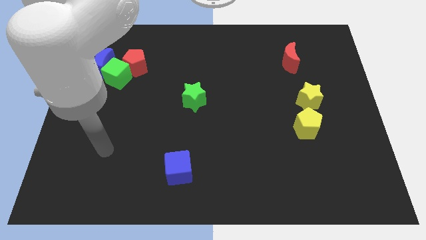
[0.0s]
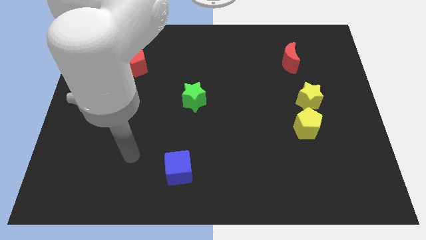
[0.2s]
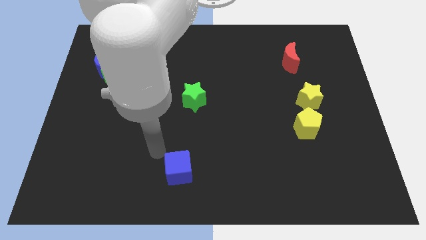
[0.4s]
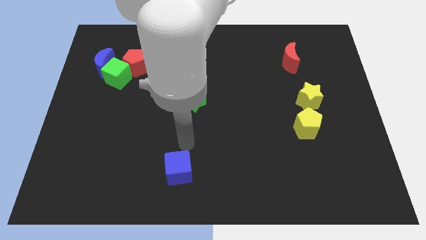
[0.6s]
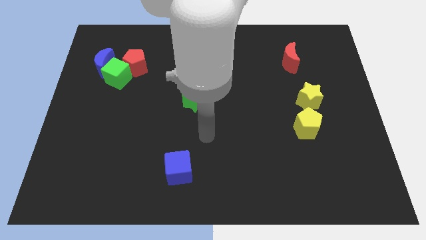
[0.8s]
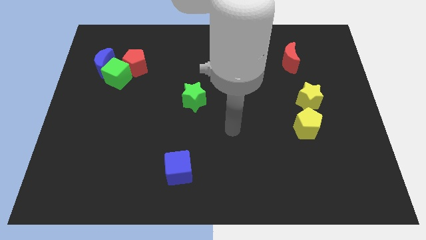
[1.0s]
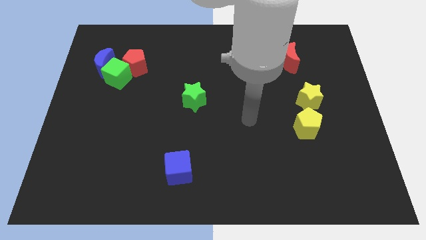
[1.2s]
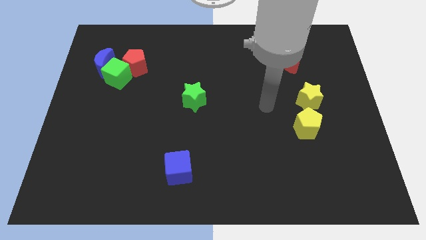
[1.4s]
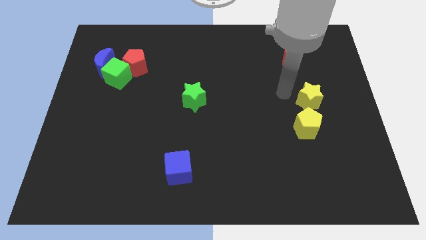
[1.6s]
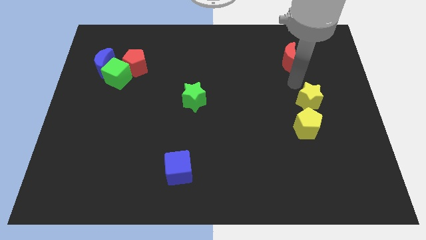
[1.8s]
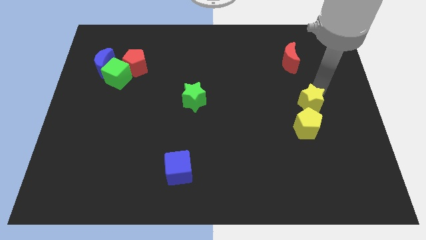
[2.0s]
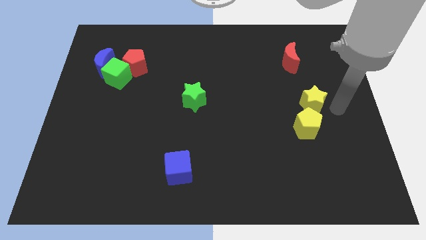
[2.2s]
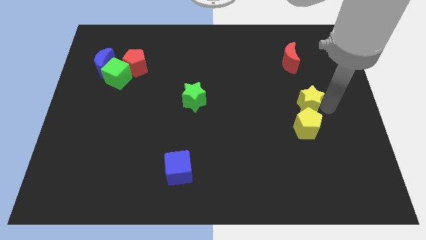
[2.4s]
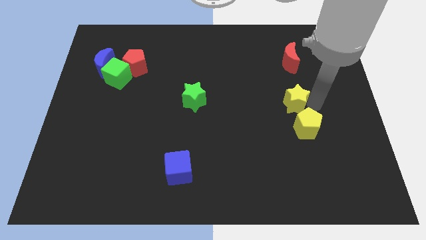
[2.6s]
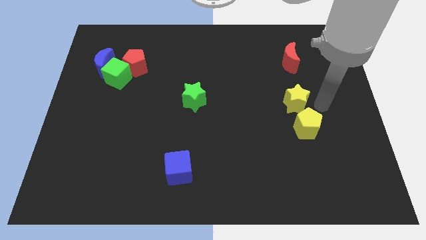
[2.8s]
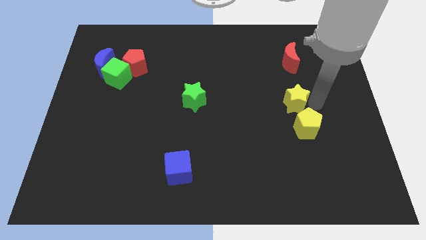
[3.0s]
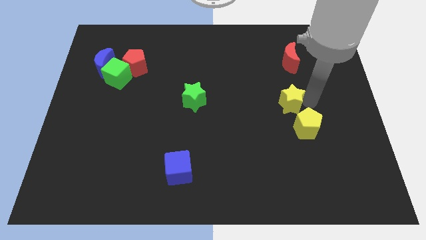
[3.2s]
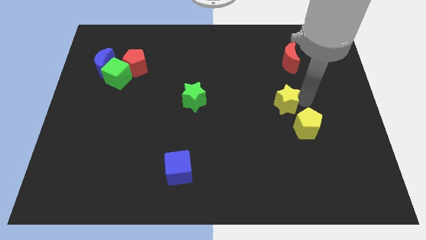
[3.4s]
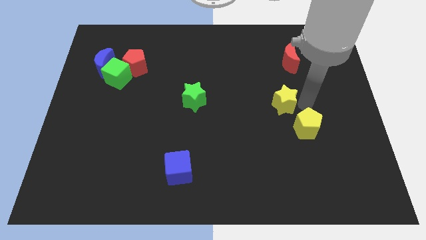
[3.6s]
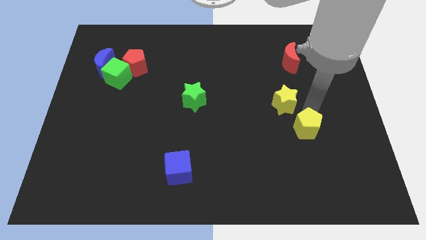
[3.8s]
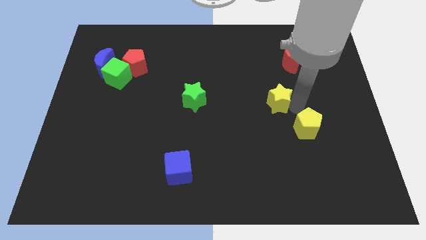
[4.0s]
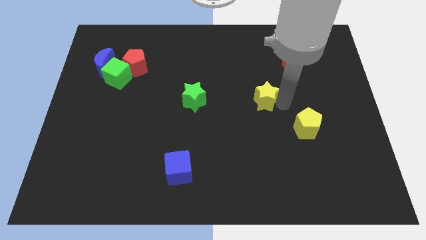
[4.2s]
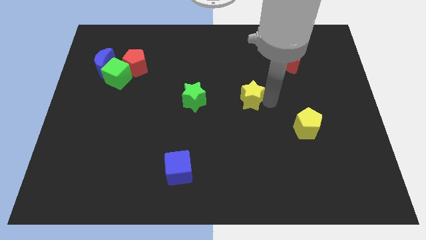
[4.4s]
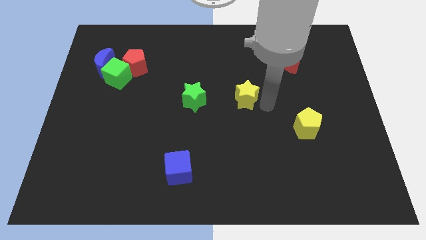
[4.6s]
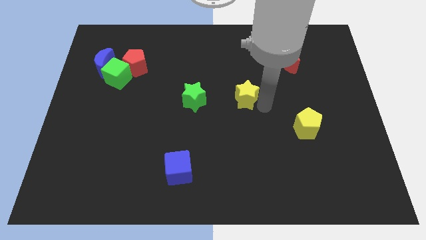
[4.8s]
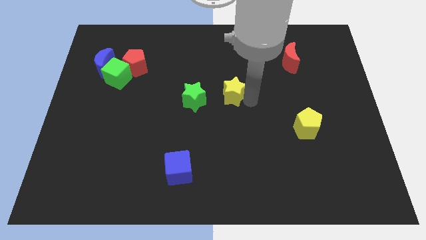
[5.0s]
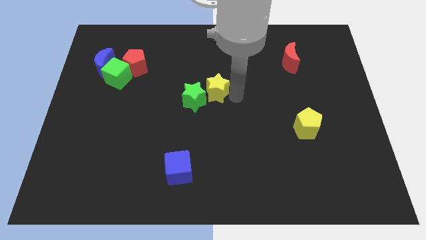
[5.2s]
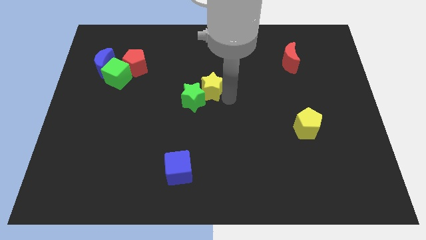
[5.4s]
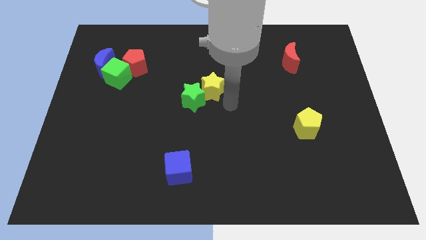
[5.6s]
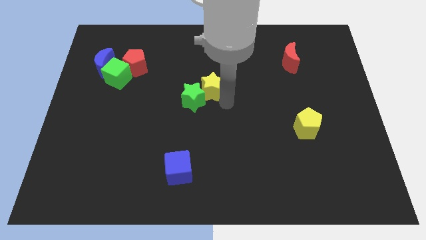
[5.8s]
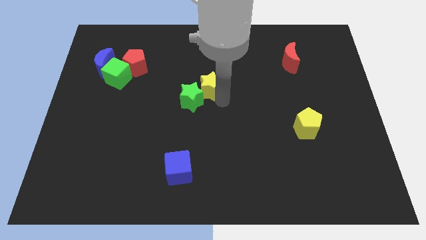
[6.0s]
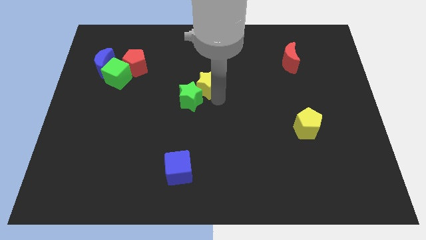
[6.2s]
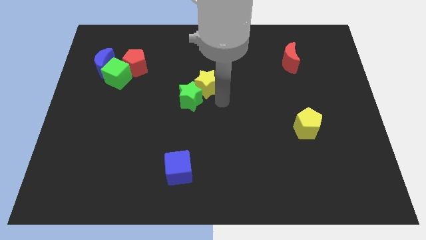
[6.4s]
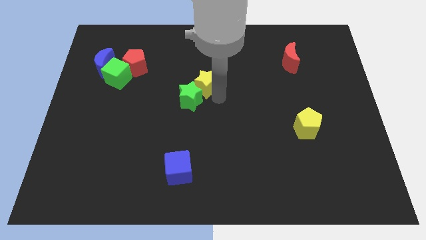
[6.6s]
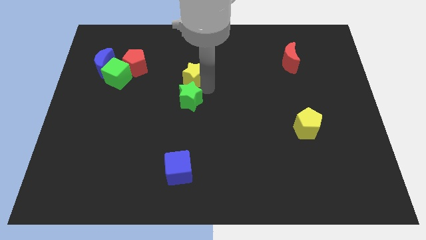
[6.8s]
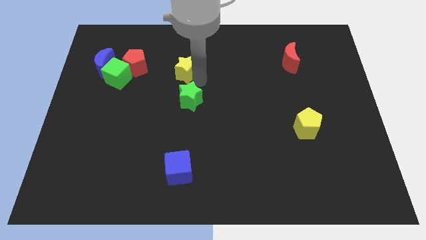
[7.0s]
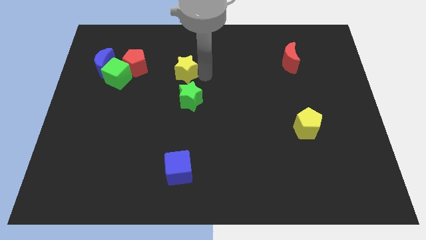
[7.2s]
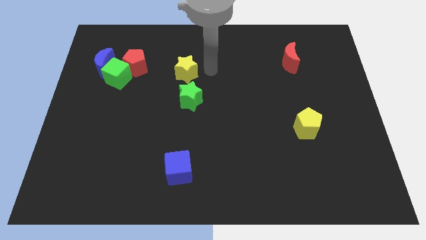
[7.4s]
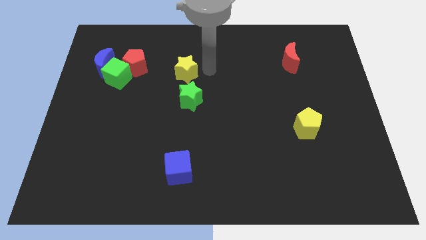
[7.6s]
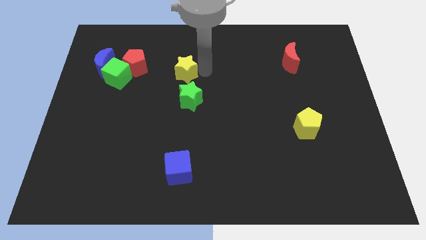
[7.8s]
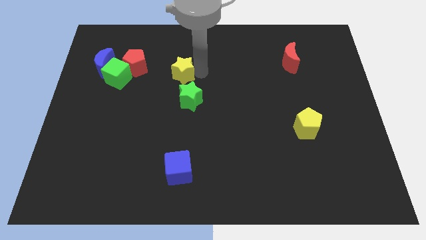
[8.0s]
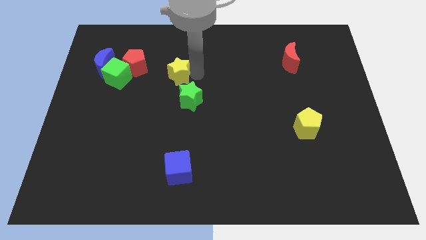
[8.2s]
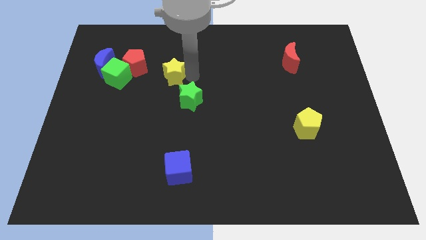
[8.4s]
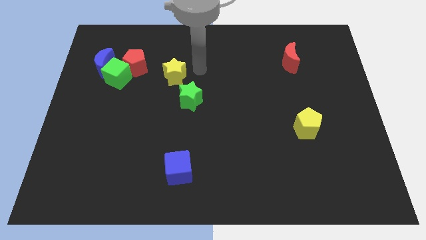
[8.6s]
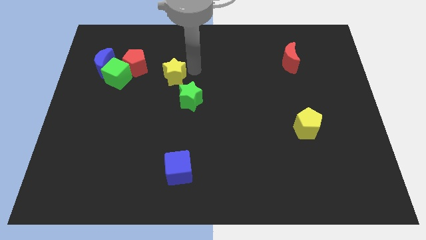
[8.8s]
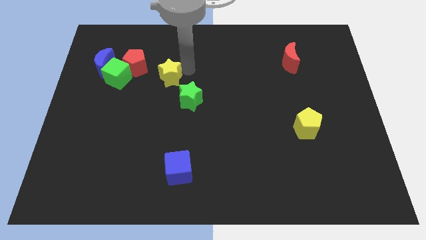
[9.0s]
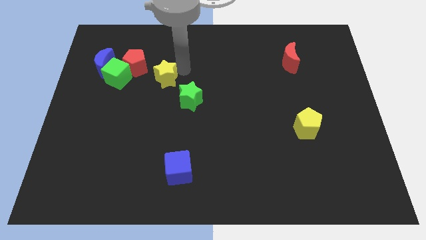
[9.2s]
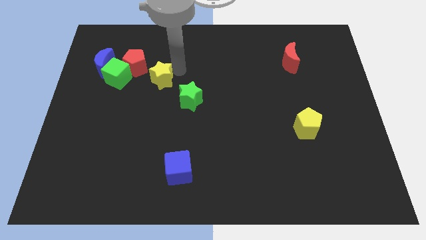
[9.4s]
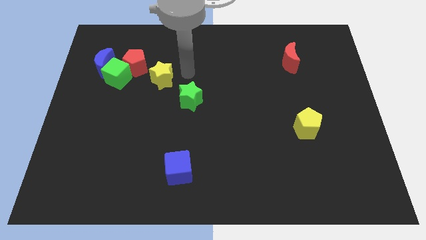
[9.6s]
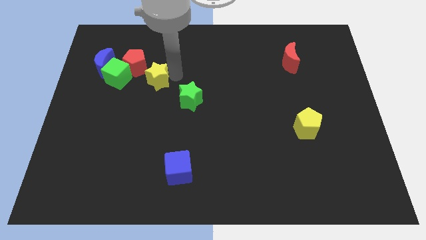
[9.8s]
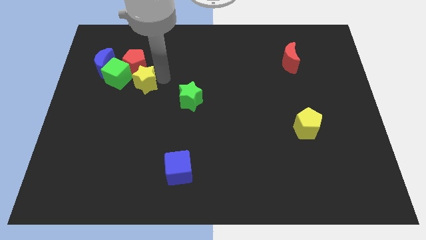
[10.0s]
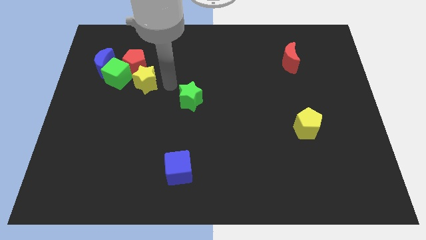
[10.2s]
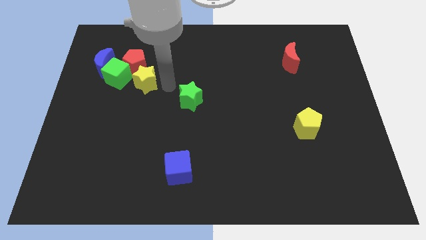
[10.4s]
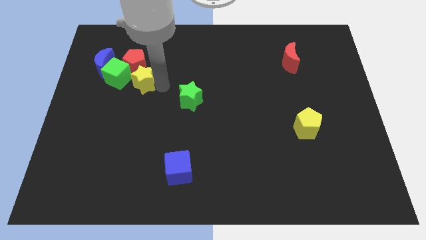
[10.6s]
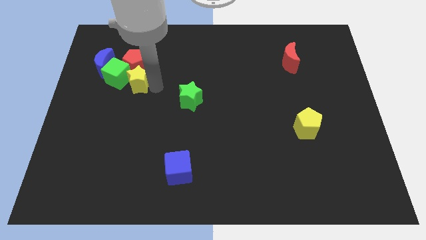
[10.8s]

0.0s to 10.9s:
move the yellow star towards the green cube

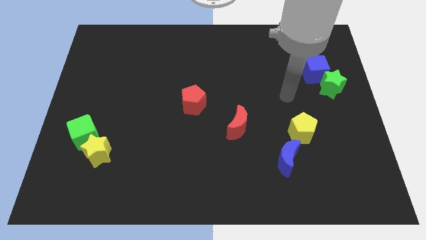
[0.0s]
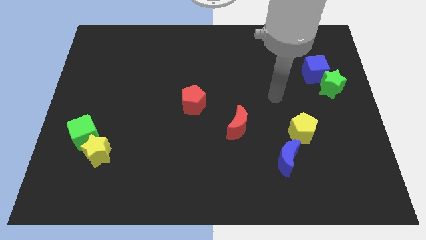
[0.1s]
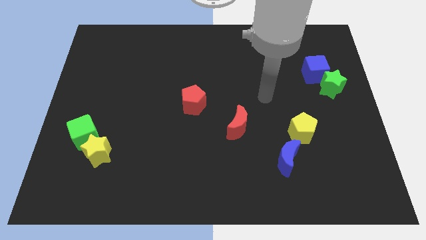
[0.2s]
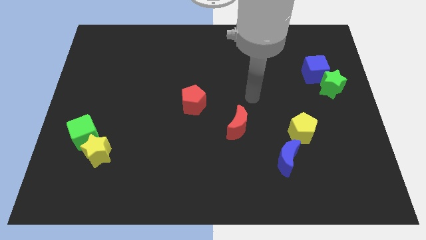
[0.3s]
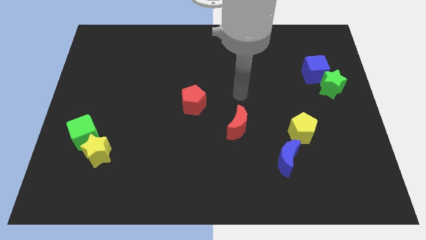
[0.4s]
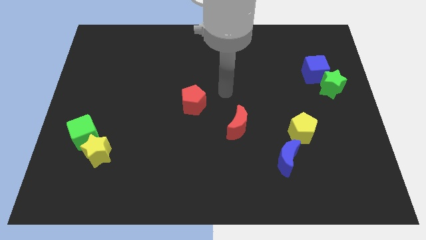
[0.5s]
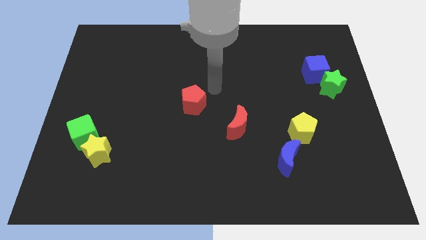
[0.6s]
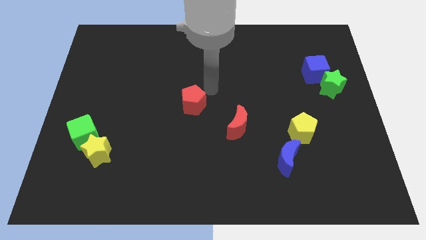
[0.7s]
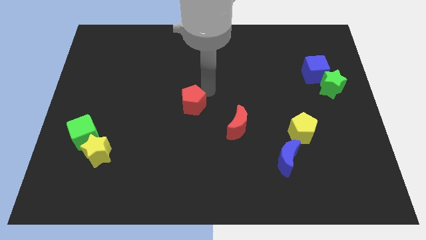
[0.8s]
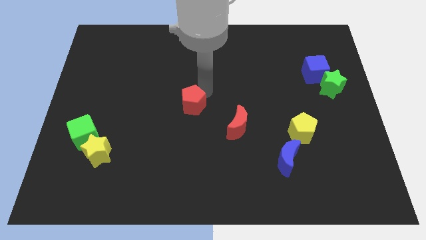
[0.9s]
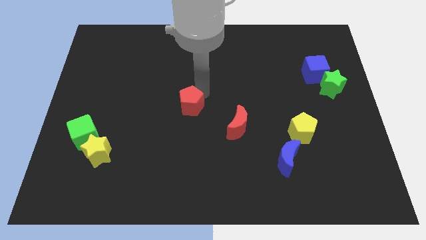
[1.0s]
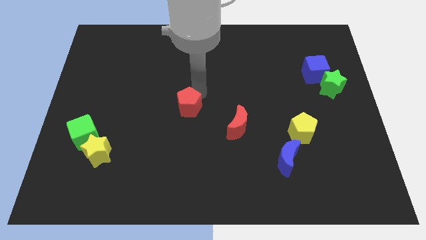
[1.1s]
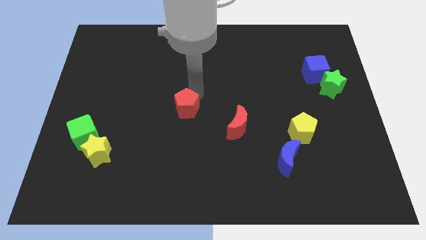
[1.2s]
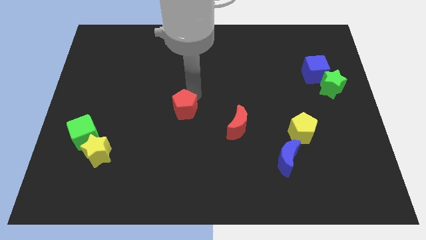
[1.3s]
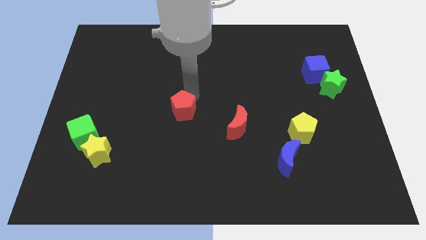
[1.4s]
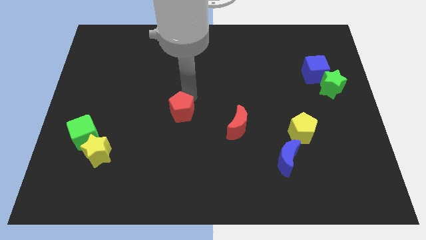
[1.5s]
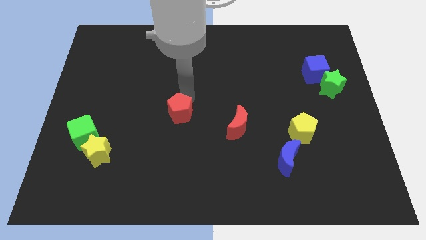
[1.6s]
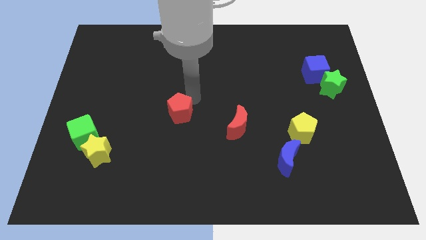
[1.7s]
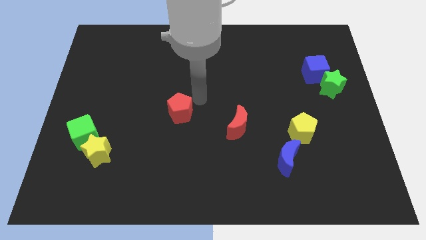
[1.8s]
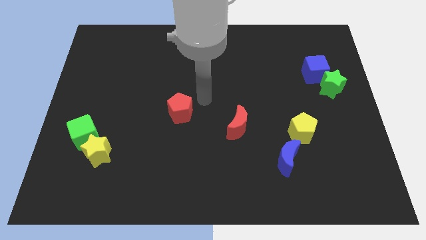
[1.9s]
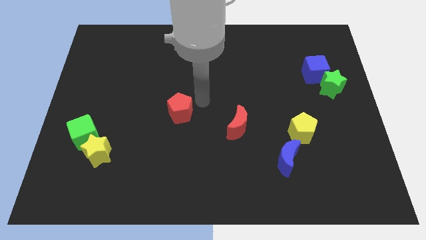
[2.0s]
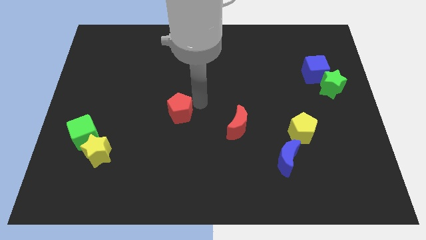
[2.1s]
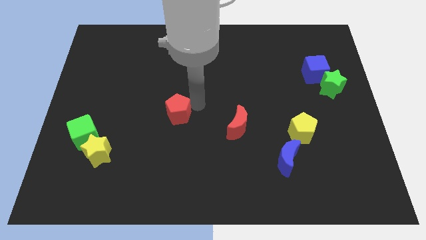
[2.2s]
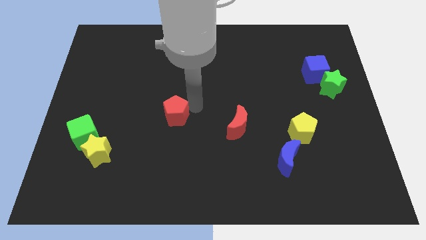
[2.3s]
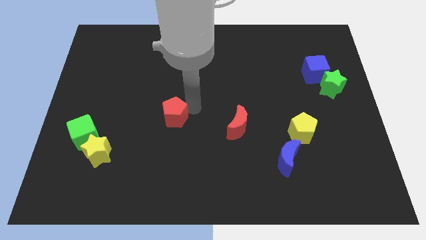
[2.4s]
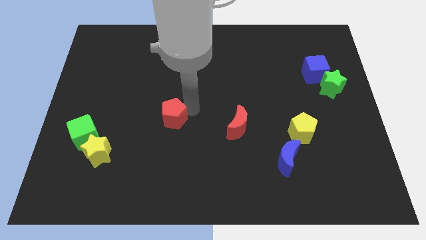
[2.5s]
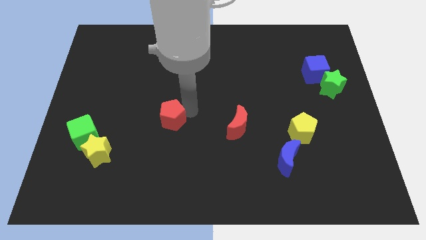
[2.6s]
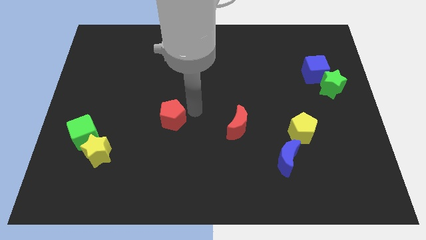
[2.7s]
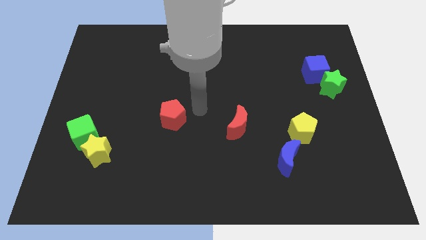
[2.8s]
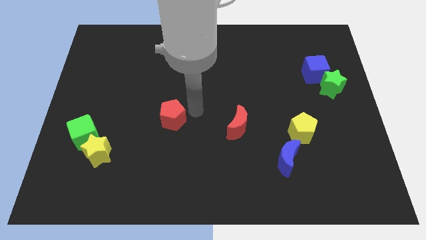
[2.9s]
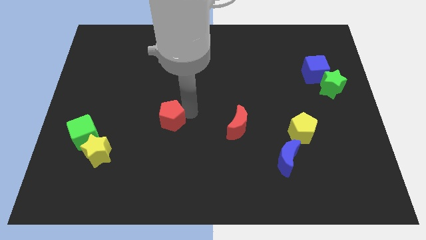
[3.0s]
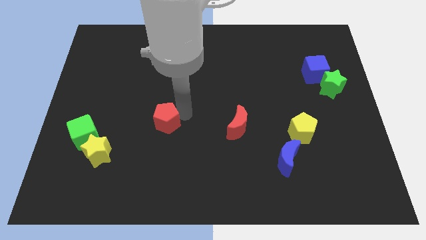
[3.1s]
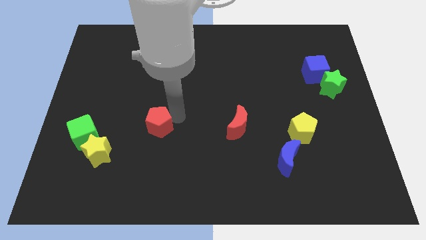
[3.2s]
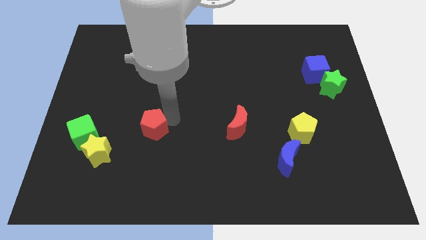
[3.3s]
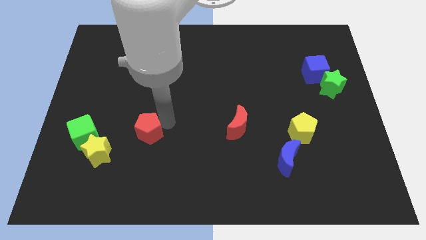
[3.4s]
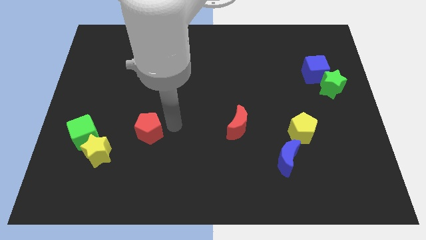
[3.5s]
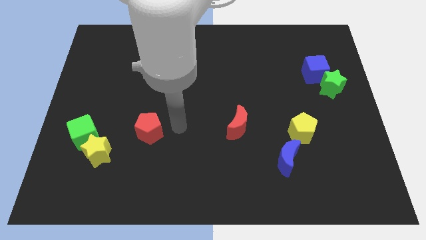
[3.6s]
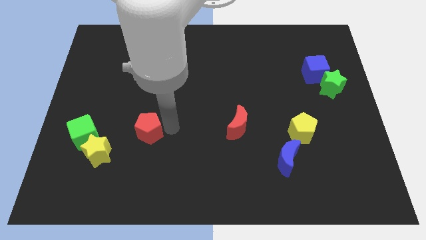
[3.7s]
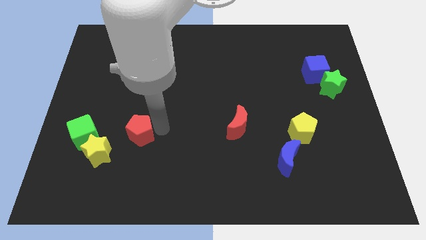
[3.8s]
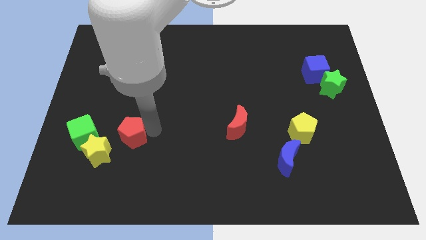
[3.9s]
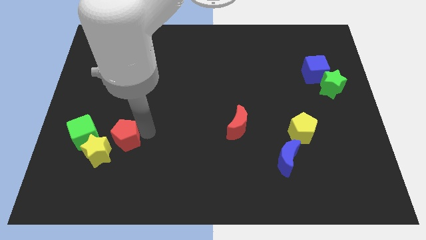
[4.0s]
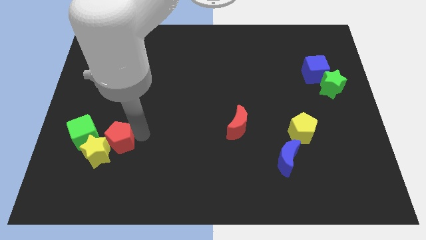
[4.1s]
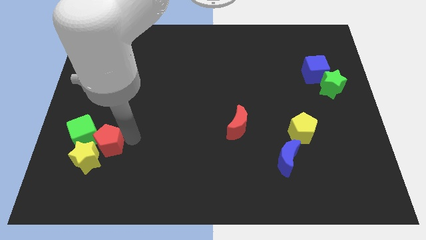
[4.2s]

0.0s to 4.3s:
put the red pentagon to the green cube
